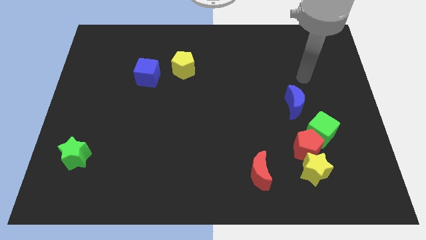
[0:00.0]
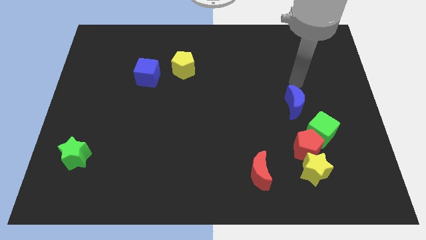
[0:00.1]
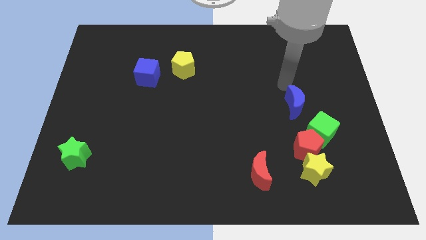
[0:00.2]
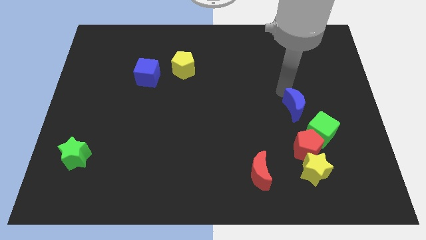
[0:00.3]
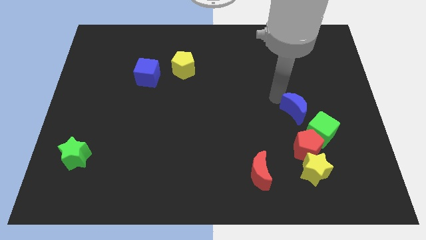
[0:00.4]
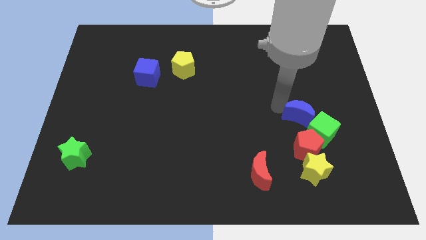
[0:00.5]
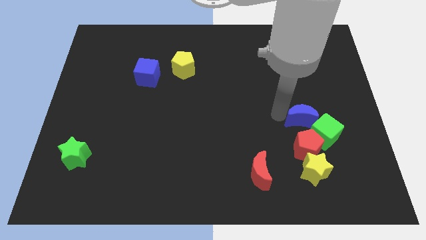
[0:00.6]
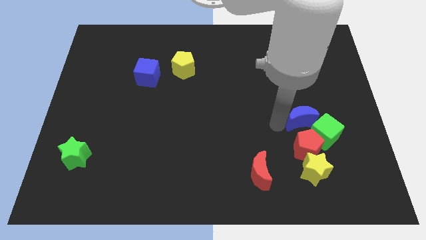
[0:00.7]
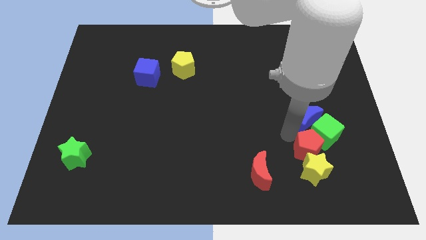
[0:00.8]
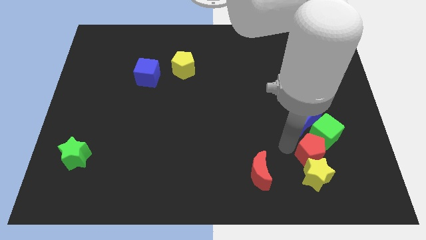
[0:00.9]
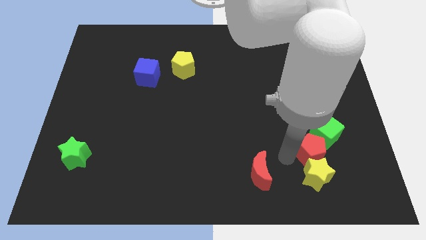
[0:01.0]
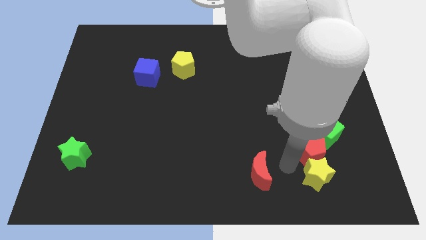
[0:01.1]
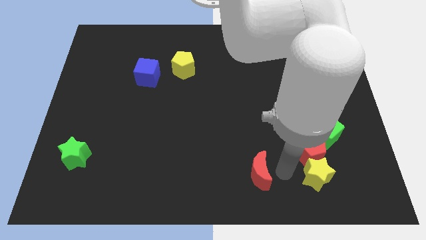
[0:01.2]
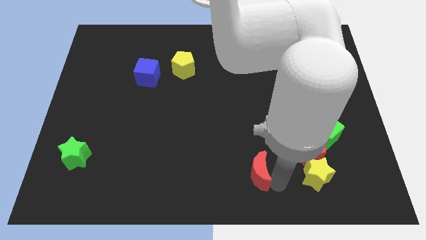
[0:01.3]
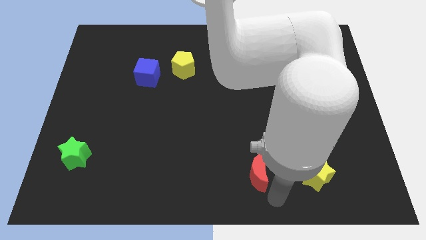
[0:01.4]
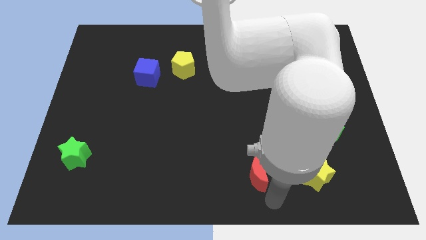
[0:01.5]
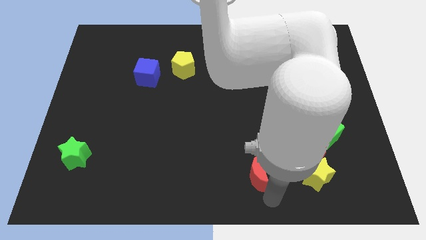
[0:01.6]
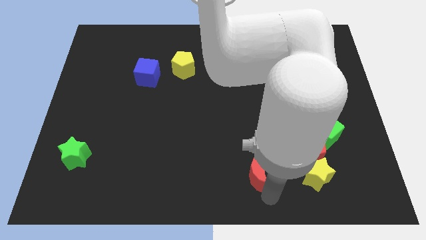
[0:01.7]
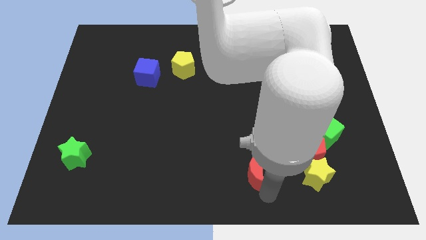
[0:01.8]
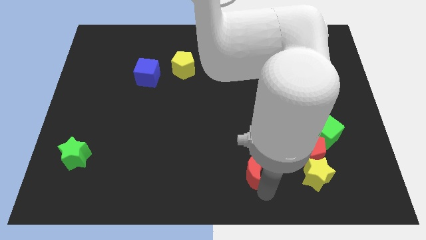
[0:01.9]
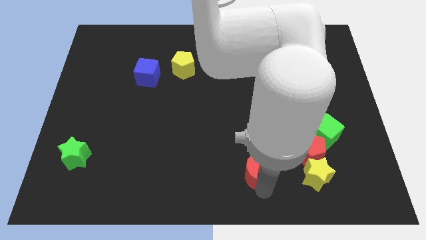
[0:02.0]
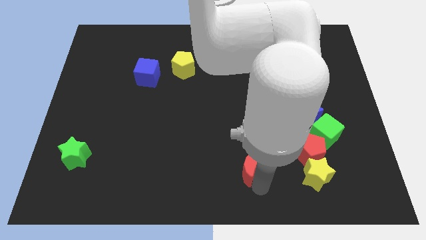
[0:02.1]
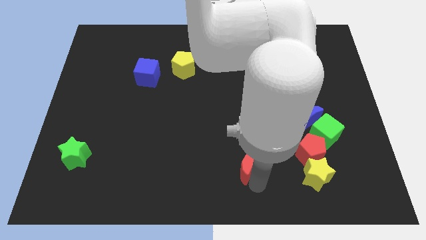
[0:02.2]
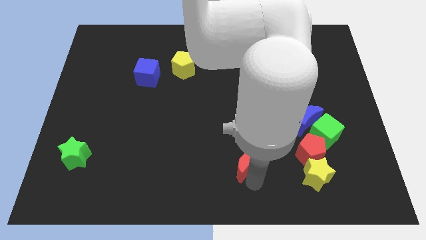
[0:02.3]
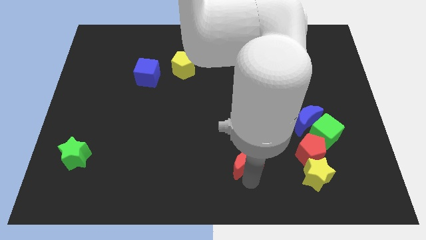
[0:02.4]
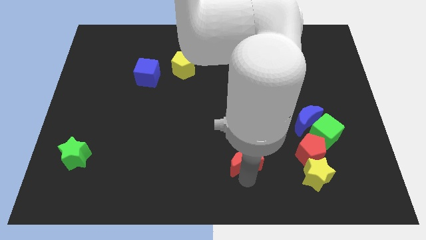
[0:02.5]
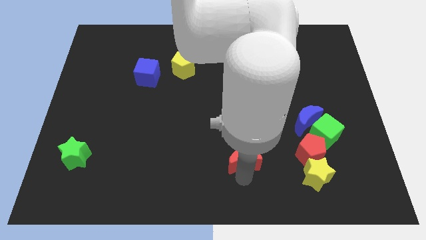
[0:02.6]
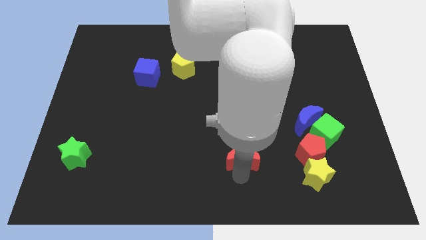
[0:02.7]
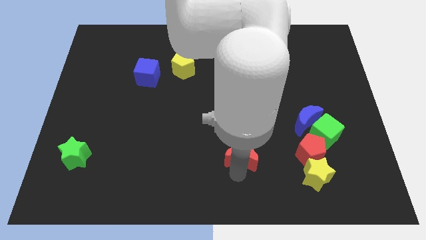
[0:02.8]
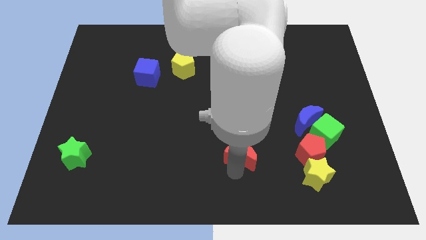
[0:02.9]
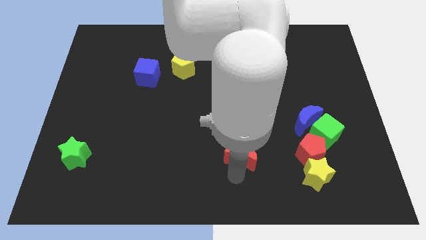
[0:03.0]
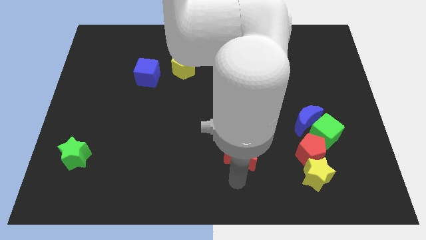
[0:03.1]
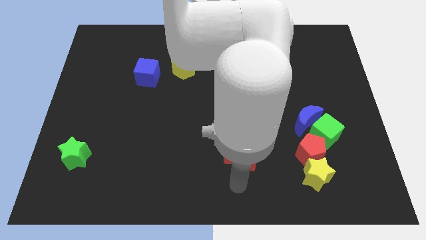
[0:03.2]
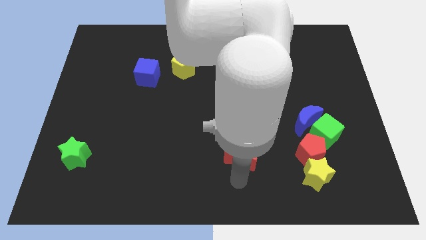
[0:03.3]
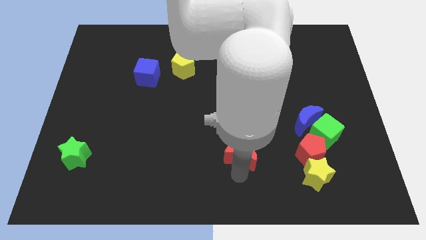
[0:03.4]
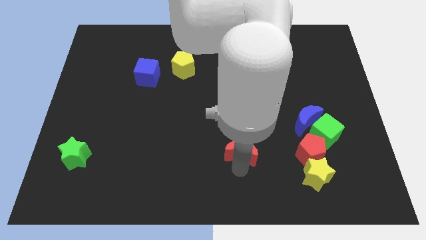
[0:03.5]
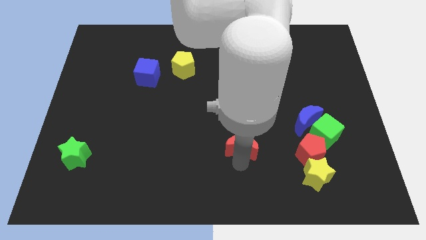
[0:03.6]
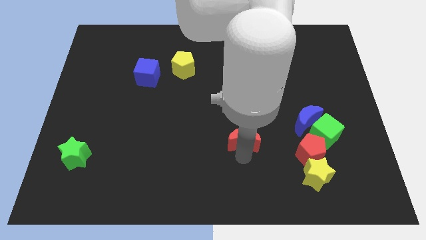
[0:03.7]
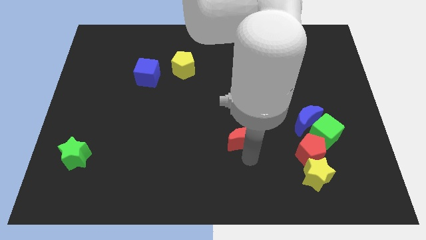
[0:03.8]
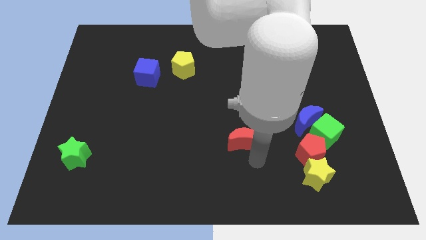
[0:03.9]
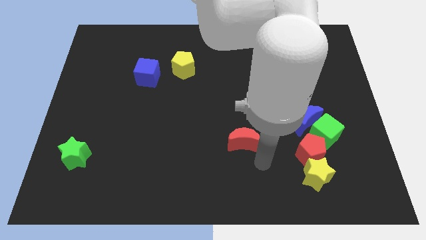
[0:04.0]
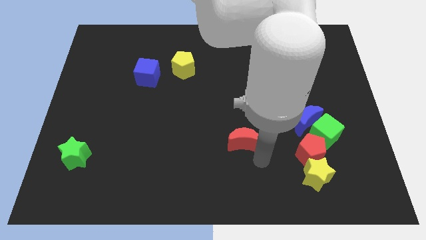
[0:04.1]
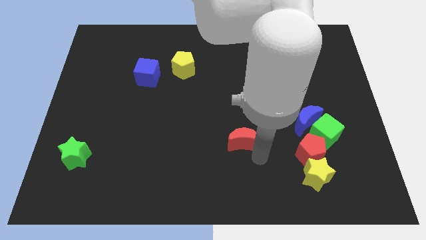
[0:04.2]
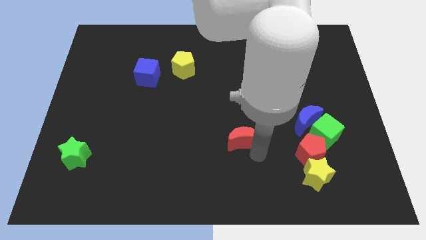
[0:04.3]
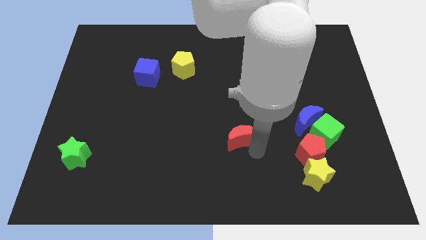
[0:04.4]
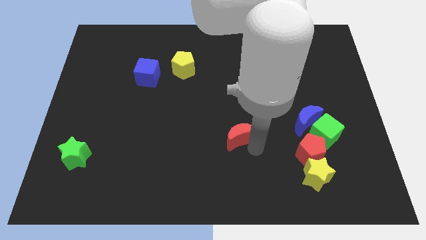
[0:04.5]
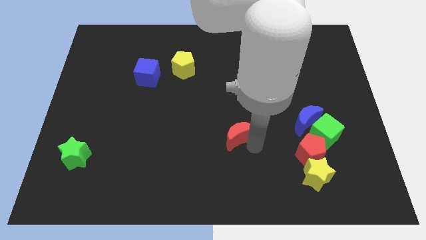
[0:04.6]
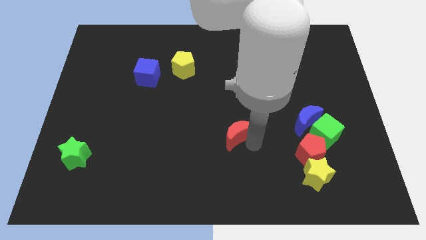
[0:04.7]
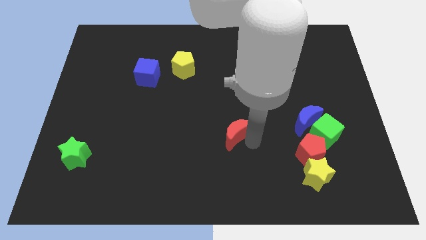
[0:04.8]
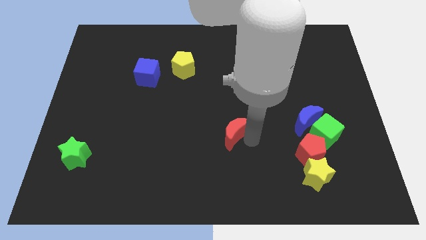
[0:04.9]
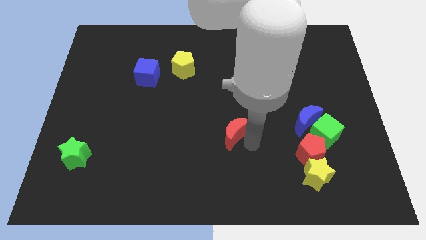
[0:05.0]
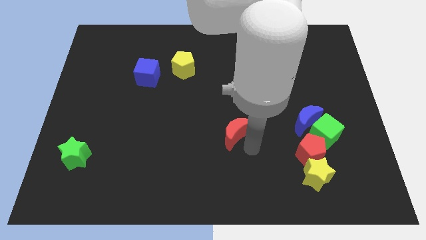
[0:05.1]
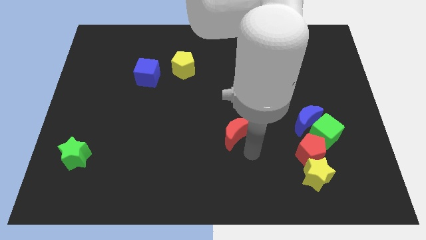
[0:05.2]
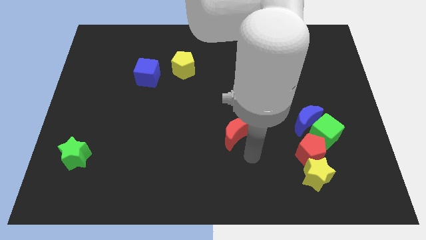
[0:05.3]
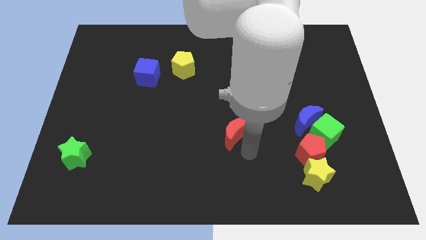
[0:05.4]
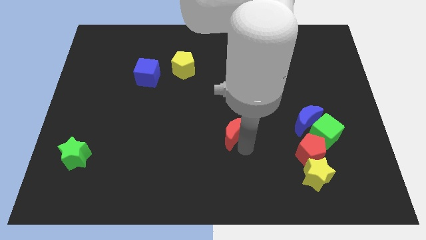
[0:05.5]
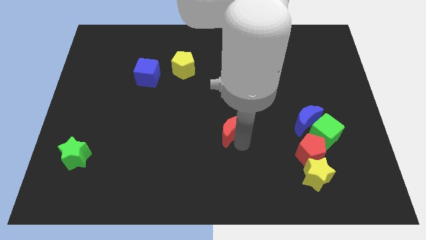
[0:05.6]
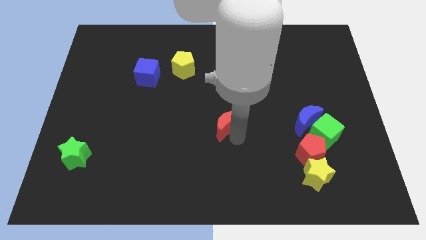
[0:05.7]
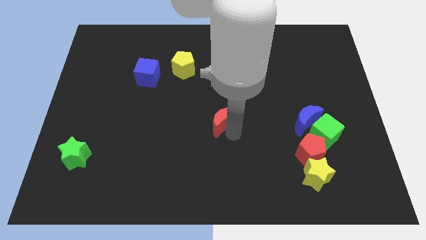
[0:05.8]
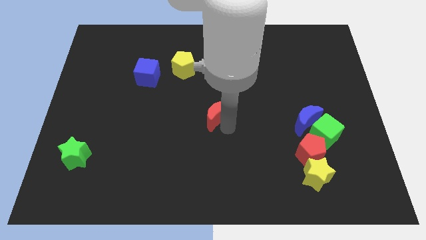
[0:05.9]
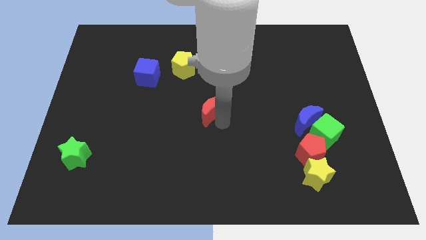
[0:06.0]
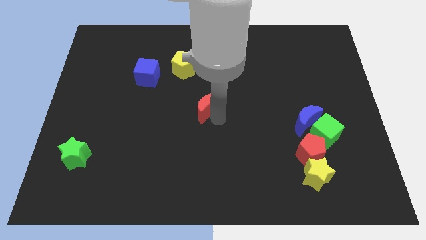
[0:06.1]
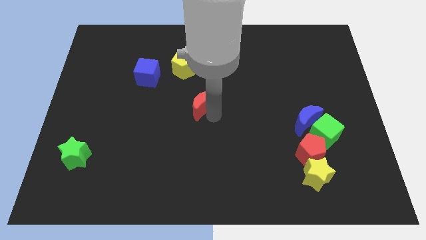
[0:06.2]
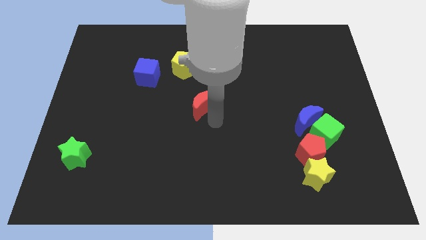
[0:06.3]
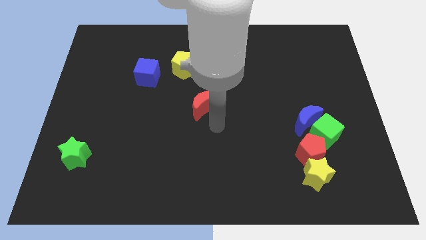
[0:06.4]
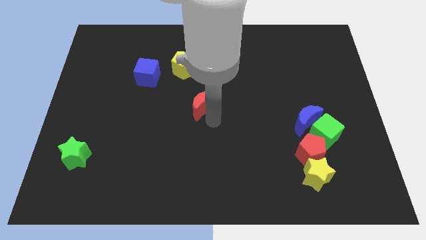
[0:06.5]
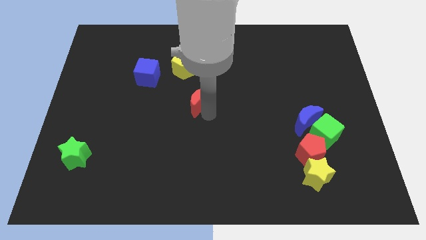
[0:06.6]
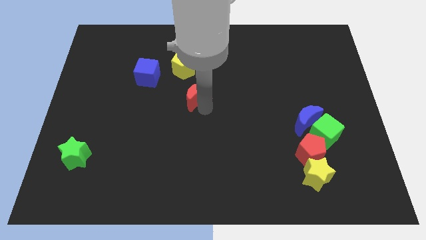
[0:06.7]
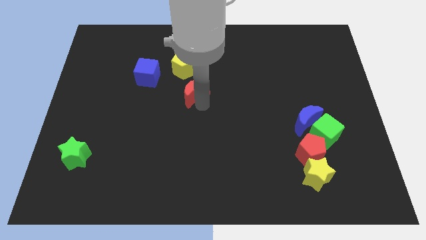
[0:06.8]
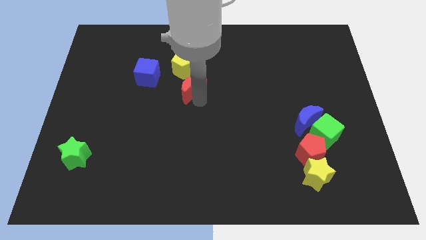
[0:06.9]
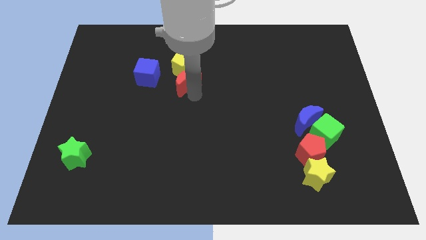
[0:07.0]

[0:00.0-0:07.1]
put the red moon towards the yellow pentagon

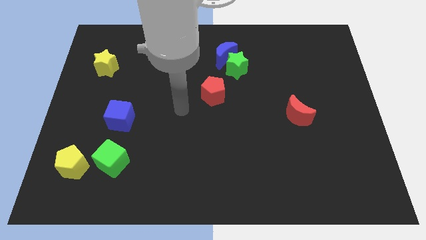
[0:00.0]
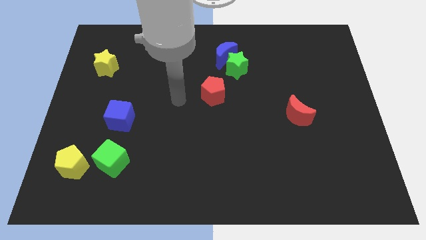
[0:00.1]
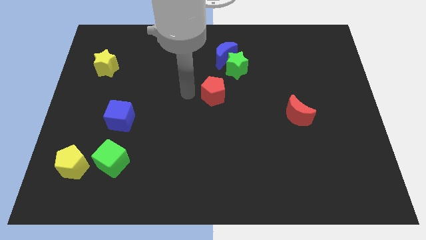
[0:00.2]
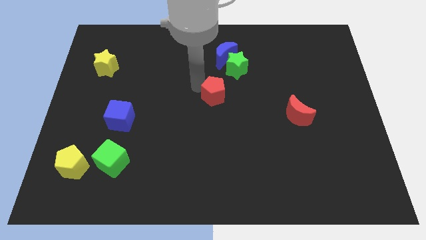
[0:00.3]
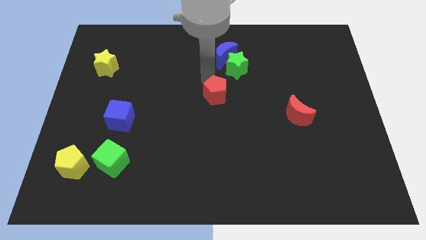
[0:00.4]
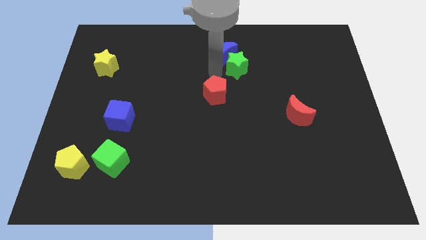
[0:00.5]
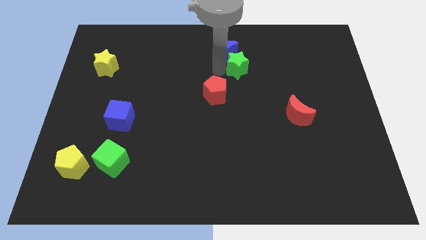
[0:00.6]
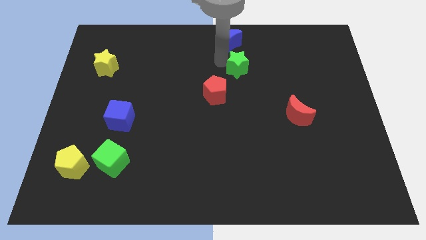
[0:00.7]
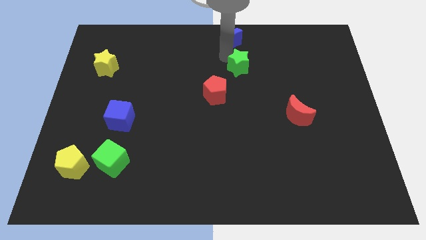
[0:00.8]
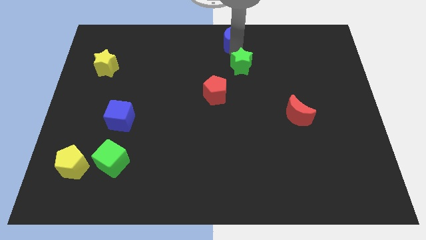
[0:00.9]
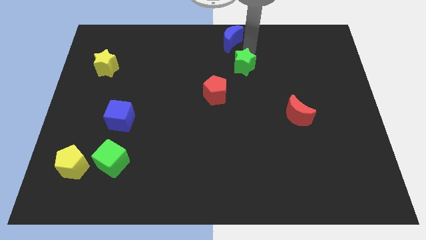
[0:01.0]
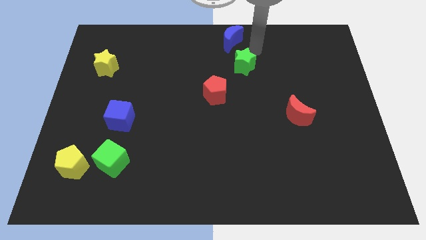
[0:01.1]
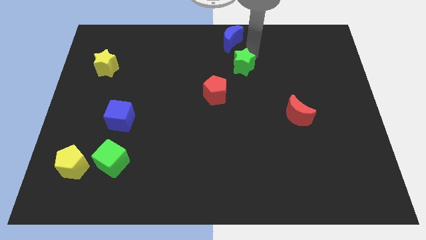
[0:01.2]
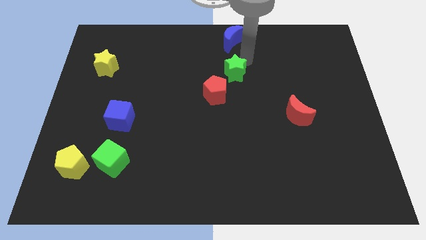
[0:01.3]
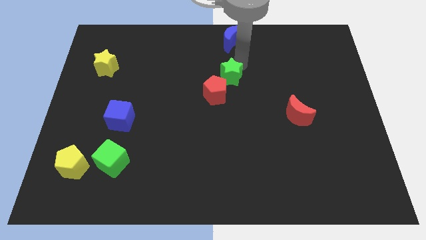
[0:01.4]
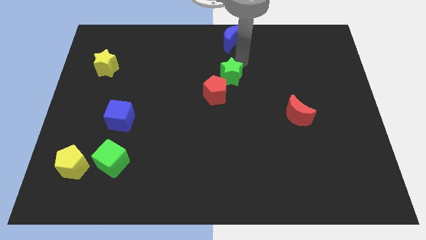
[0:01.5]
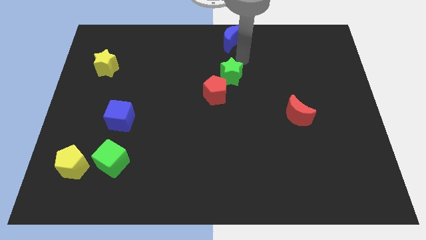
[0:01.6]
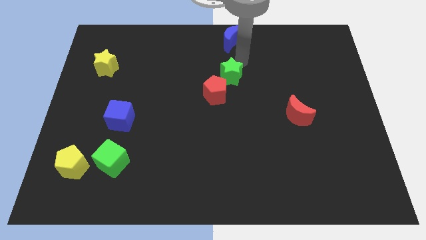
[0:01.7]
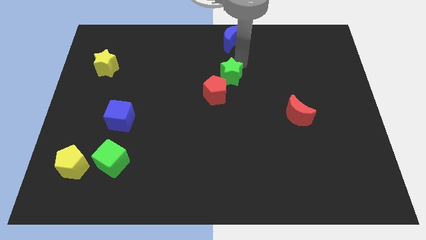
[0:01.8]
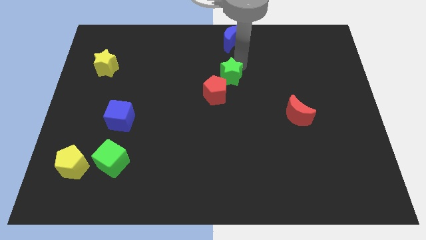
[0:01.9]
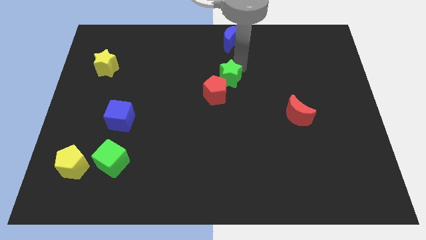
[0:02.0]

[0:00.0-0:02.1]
put the green star close to the red pentagon
